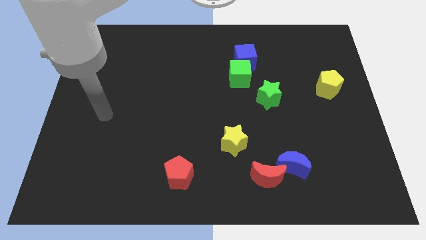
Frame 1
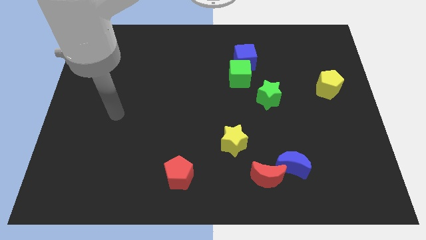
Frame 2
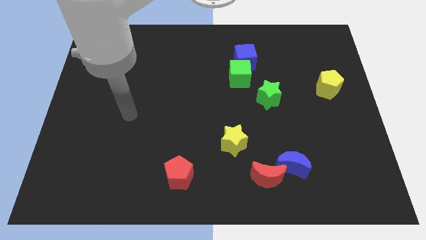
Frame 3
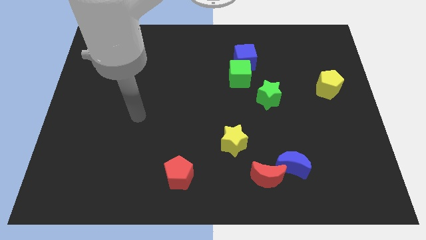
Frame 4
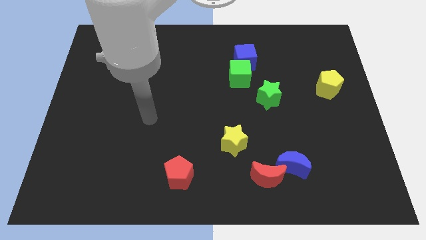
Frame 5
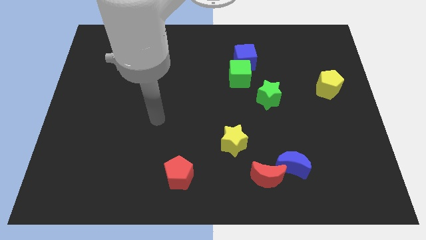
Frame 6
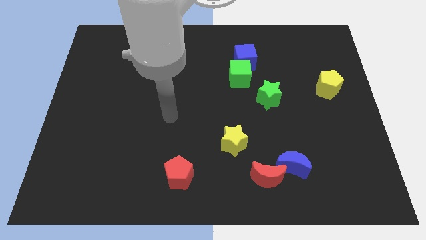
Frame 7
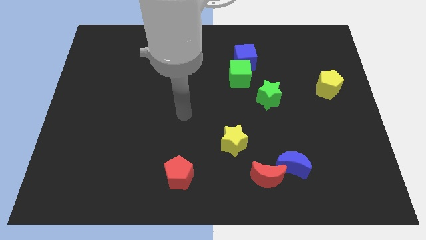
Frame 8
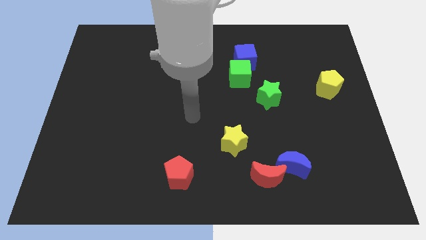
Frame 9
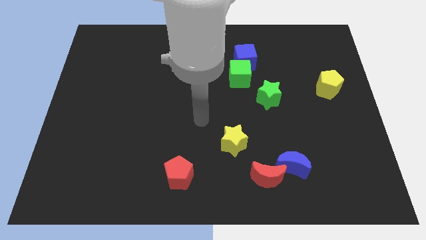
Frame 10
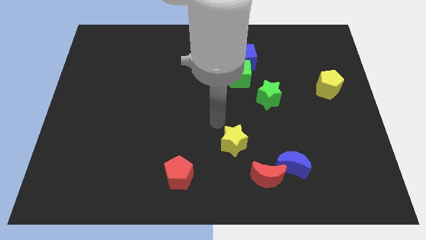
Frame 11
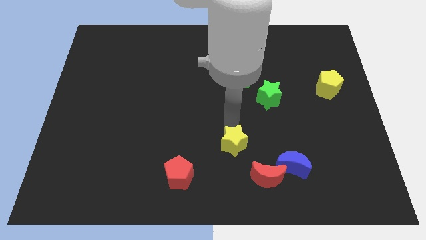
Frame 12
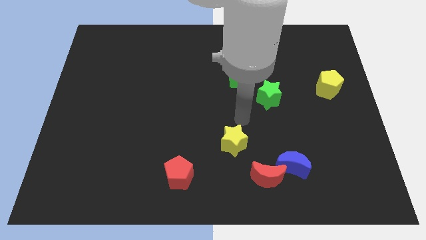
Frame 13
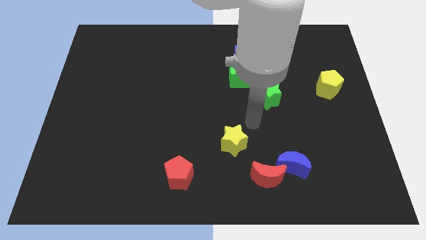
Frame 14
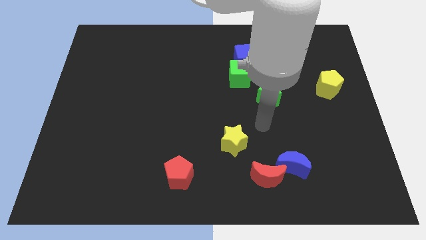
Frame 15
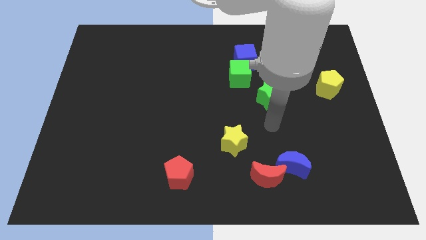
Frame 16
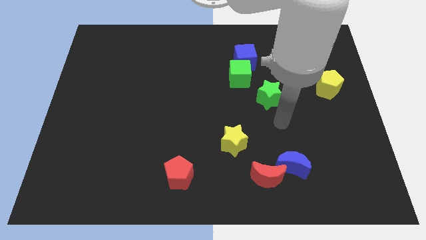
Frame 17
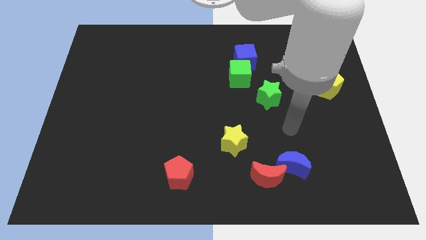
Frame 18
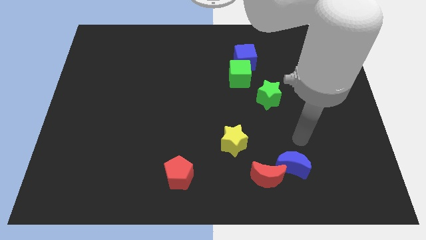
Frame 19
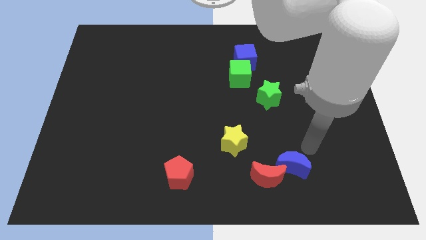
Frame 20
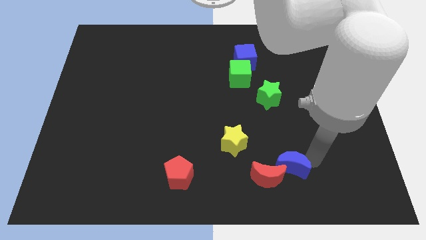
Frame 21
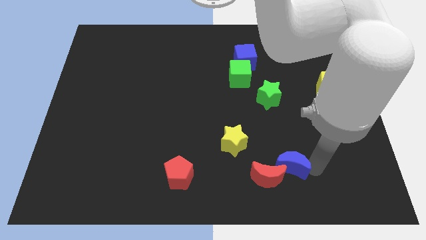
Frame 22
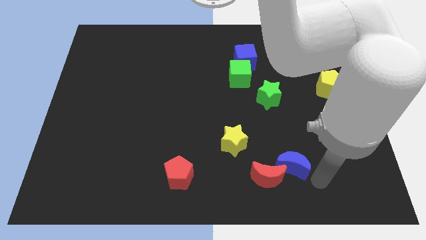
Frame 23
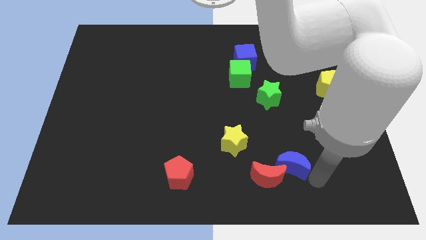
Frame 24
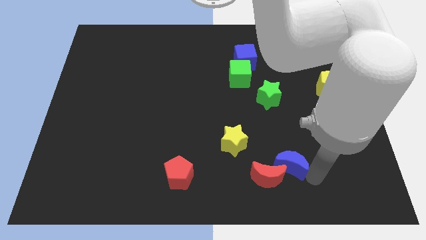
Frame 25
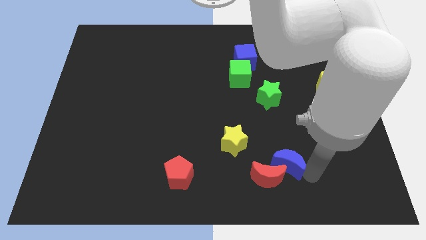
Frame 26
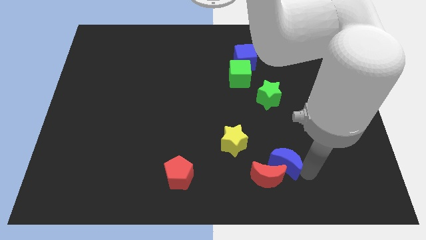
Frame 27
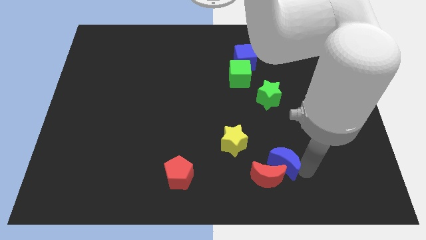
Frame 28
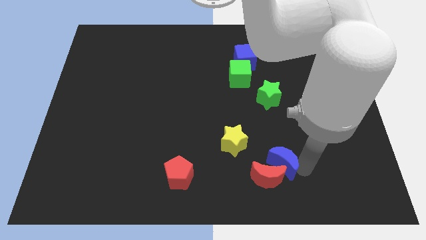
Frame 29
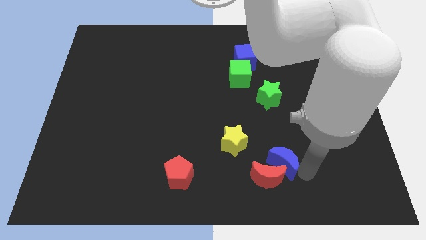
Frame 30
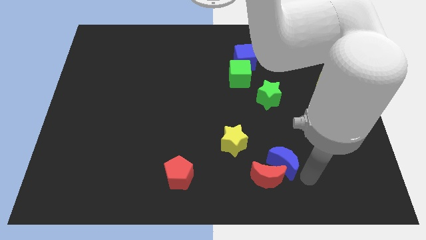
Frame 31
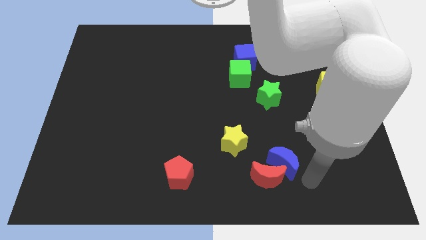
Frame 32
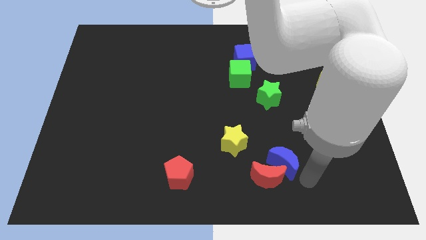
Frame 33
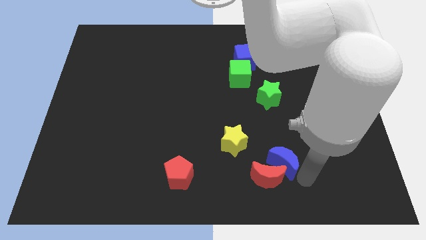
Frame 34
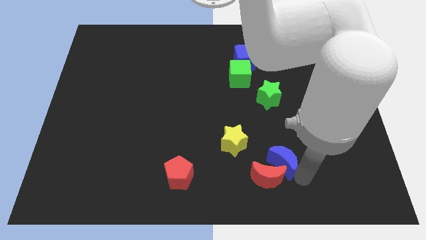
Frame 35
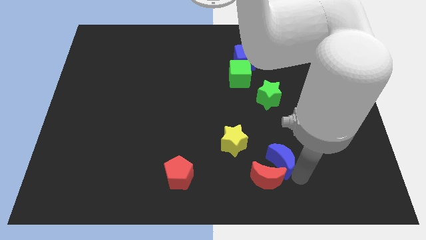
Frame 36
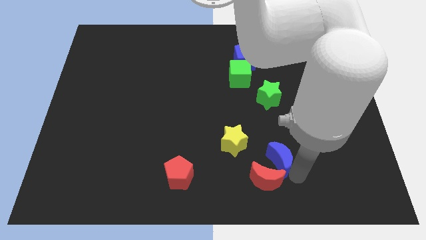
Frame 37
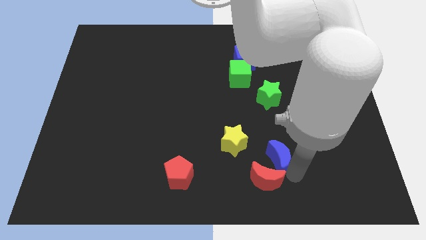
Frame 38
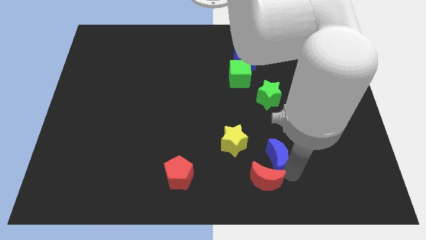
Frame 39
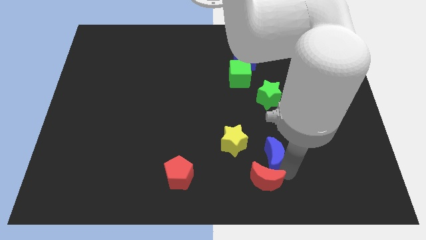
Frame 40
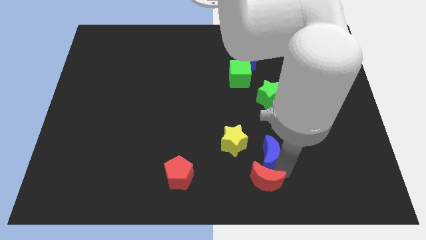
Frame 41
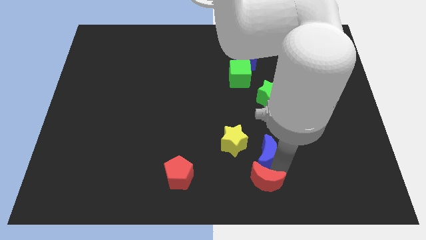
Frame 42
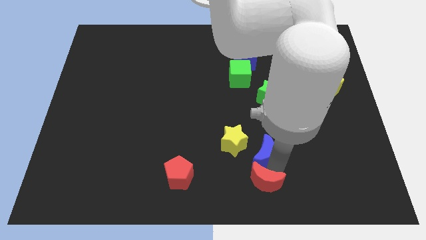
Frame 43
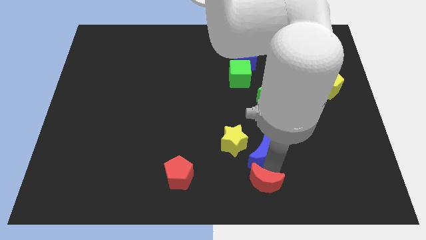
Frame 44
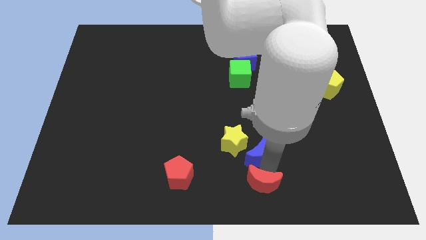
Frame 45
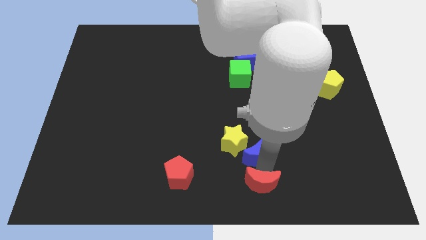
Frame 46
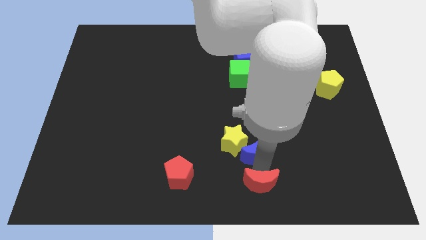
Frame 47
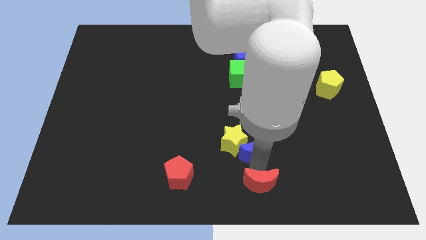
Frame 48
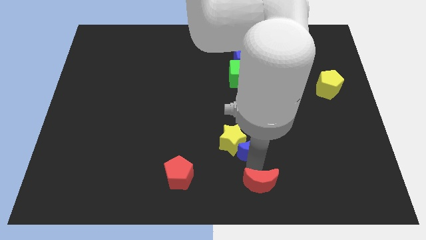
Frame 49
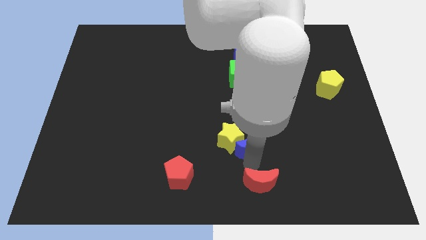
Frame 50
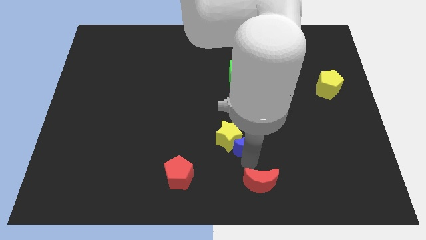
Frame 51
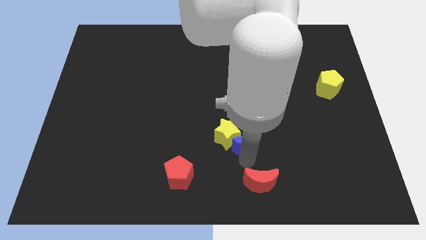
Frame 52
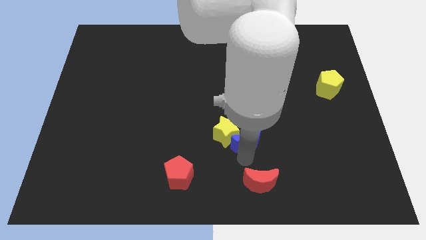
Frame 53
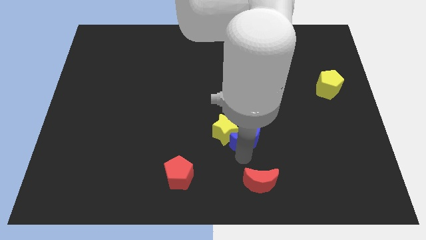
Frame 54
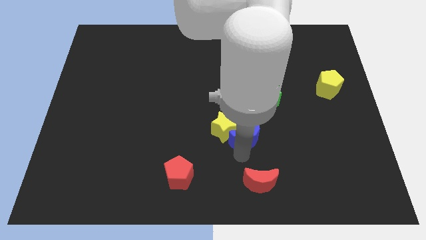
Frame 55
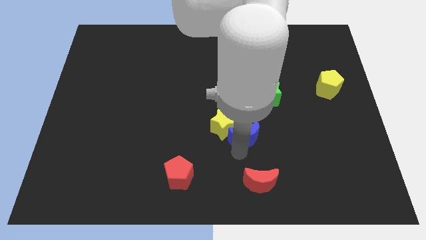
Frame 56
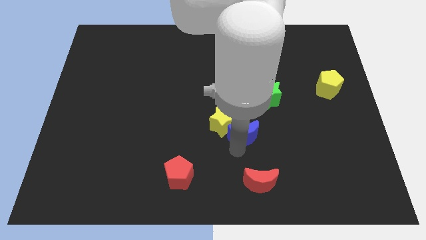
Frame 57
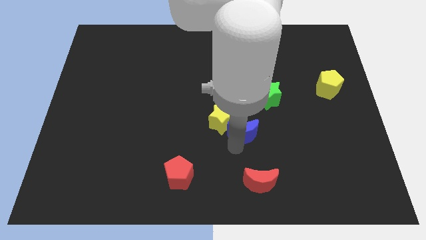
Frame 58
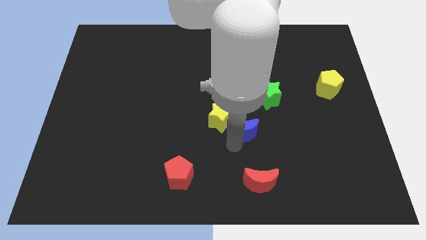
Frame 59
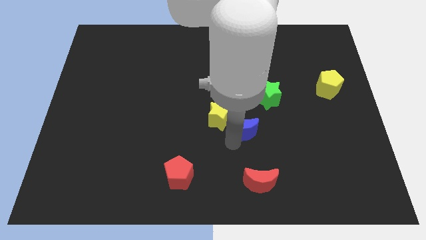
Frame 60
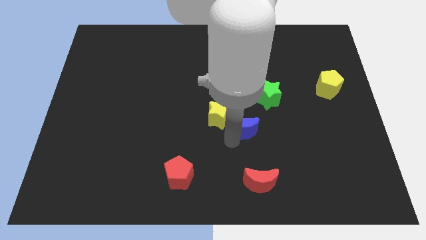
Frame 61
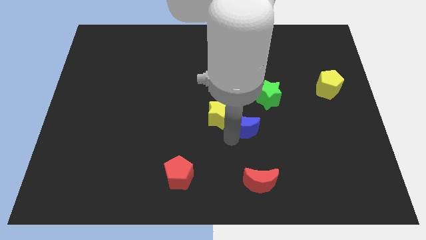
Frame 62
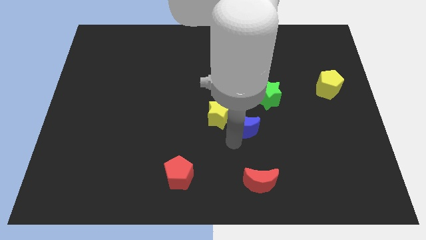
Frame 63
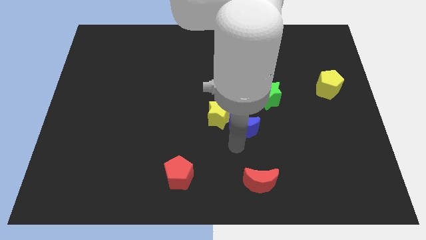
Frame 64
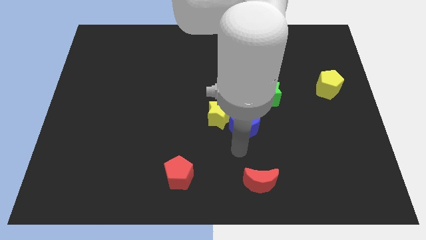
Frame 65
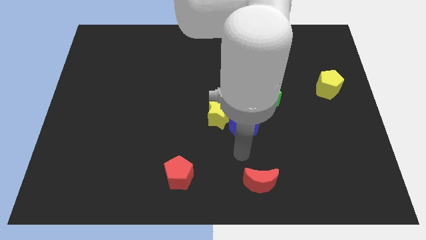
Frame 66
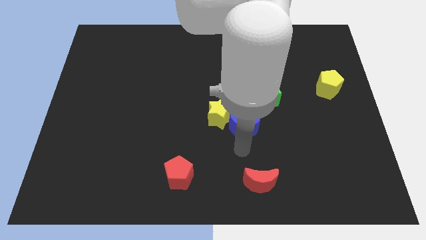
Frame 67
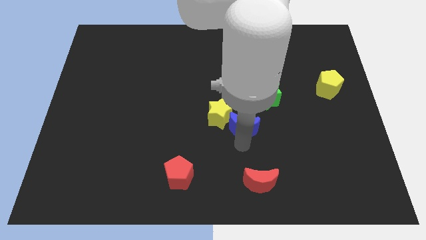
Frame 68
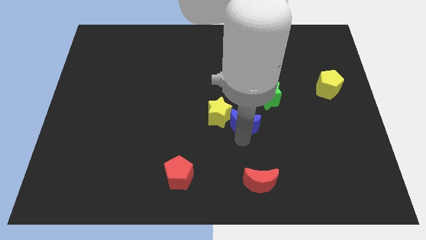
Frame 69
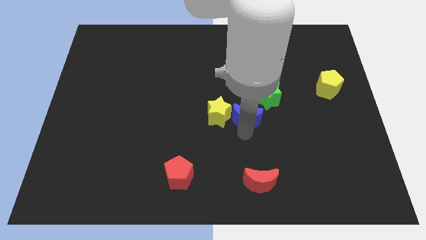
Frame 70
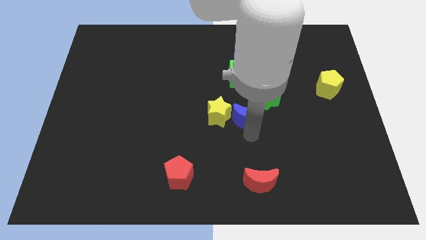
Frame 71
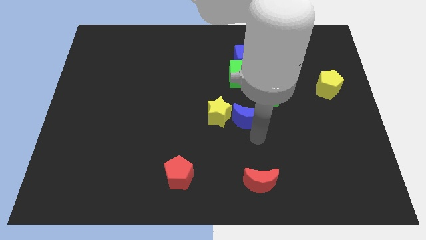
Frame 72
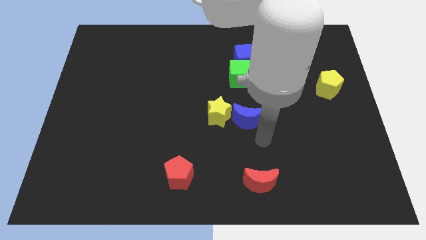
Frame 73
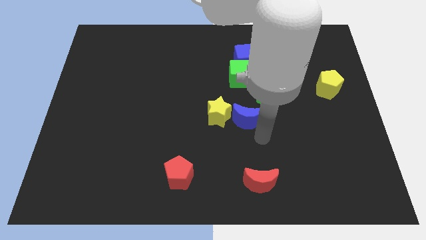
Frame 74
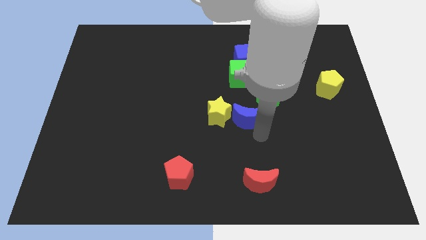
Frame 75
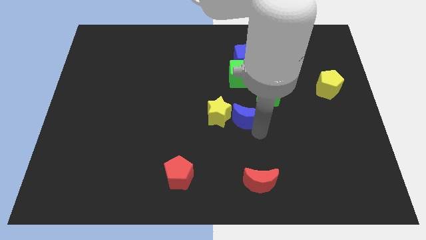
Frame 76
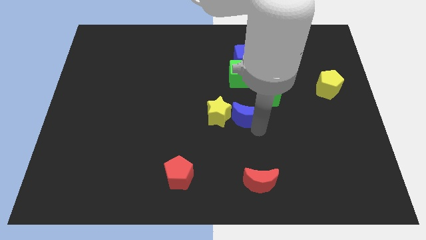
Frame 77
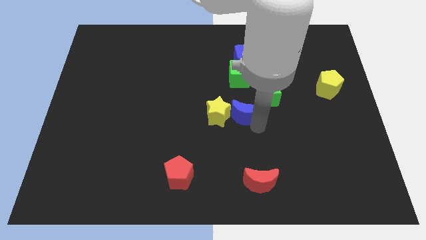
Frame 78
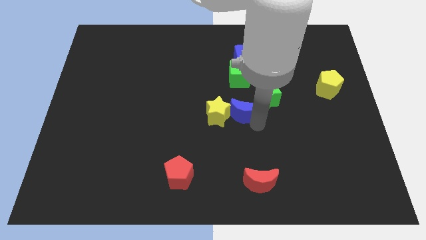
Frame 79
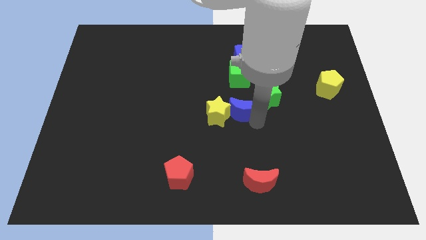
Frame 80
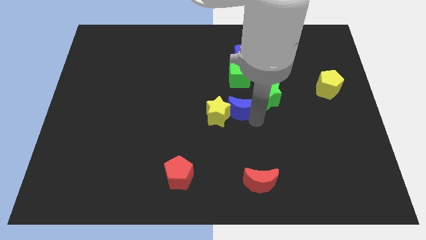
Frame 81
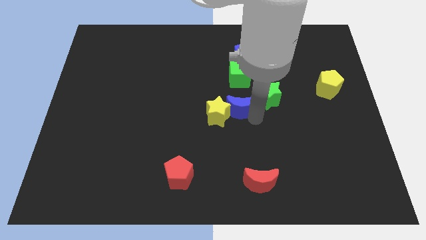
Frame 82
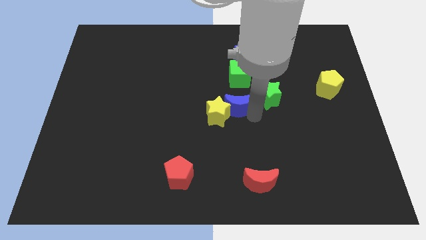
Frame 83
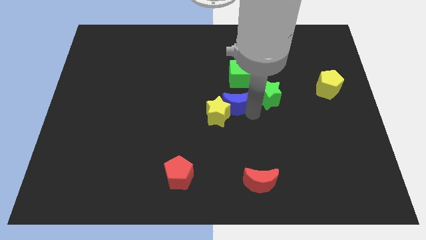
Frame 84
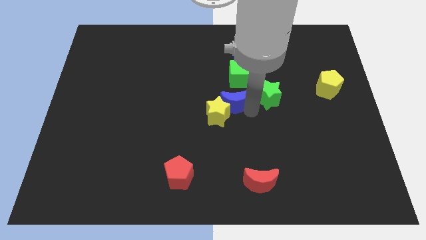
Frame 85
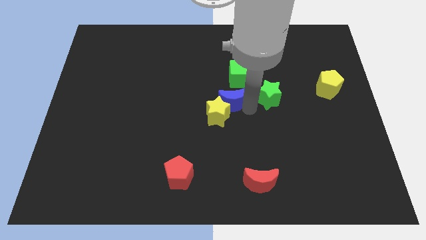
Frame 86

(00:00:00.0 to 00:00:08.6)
slide the blue moon to the bottom left side of the green cube
